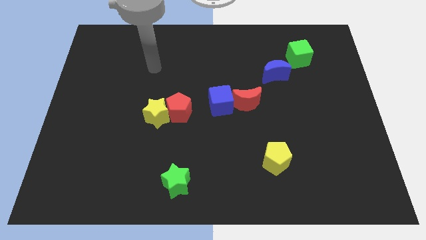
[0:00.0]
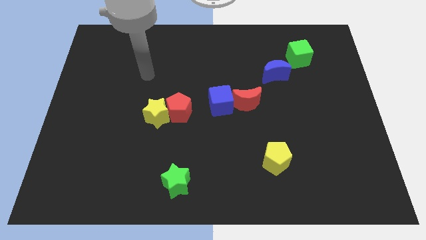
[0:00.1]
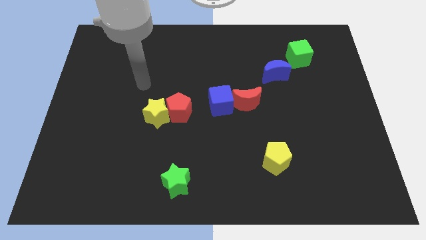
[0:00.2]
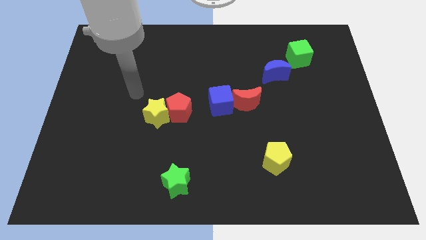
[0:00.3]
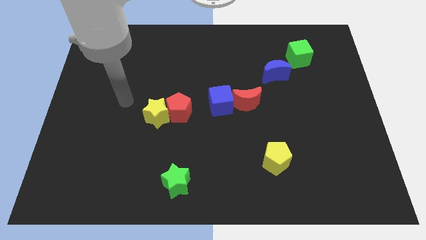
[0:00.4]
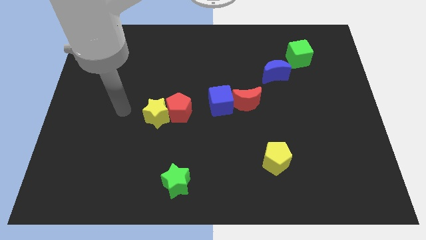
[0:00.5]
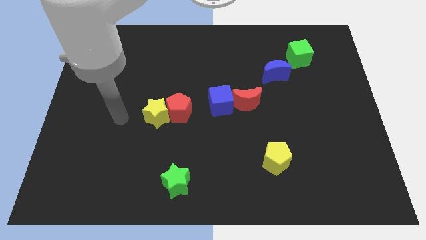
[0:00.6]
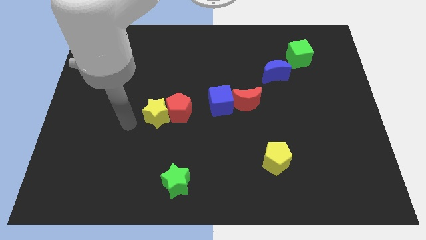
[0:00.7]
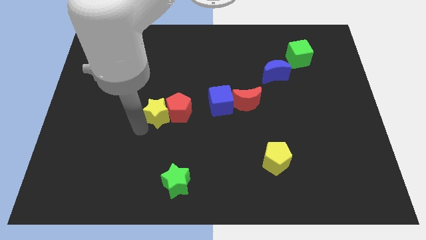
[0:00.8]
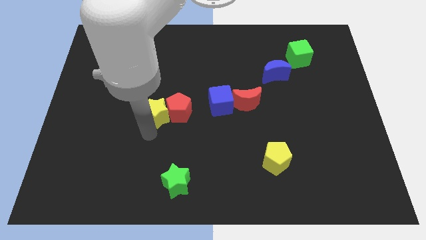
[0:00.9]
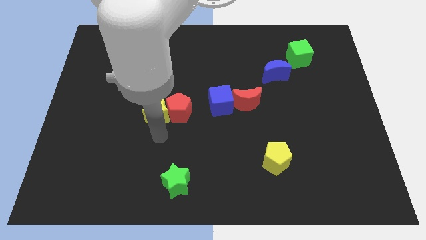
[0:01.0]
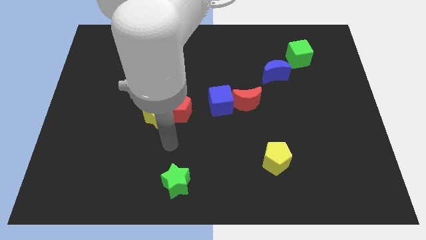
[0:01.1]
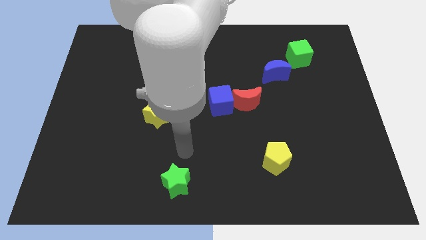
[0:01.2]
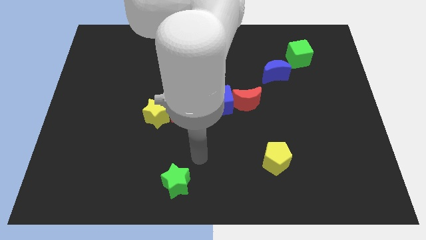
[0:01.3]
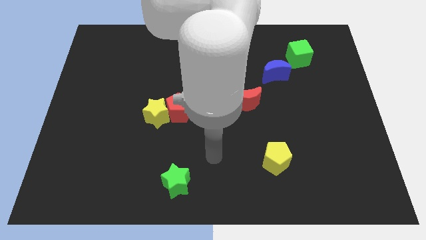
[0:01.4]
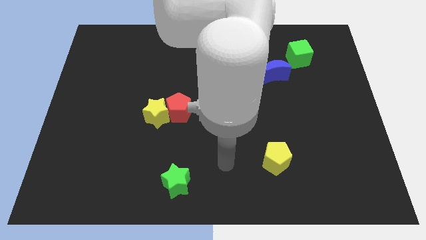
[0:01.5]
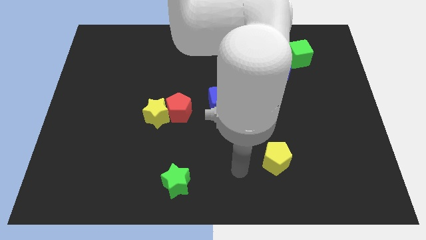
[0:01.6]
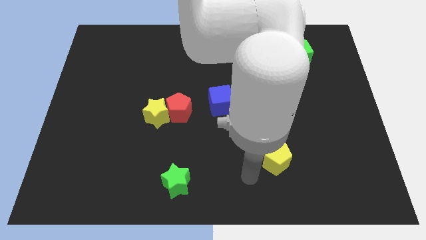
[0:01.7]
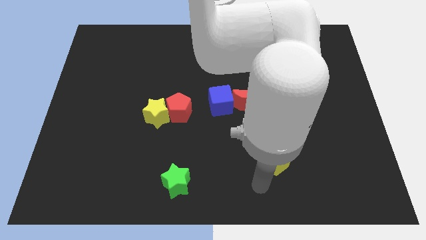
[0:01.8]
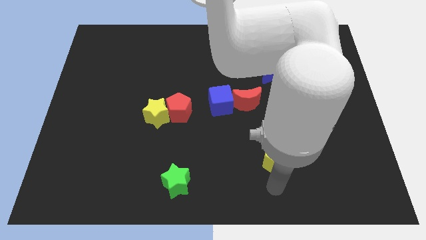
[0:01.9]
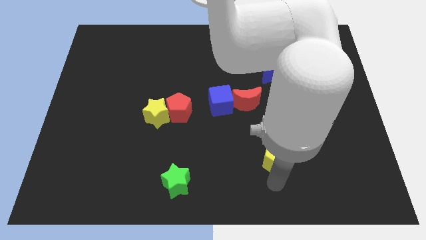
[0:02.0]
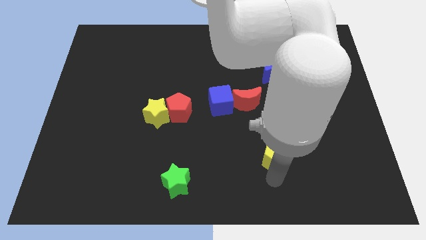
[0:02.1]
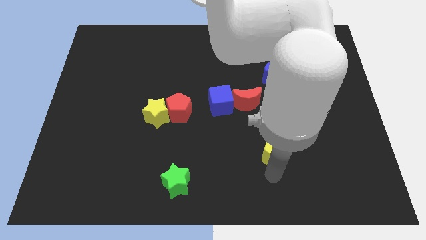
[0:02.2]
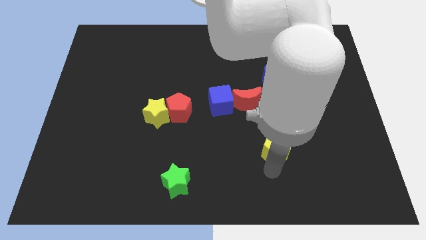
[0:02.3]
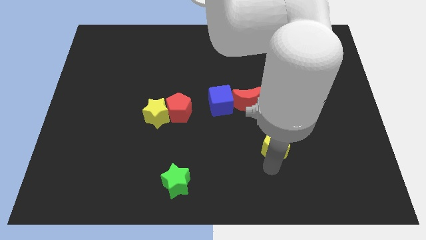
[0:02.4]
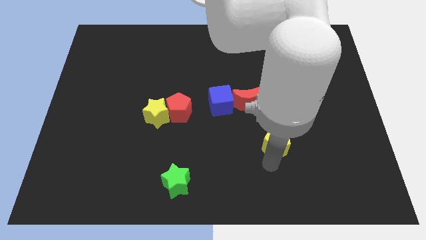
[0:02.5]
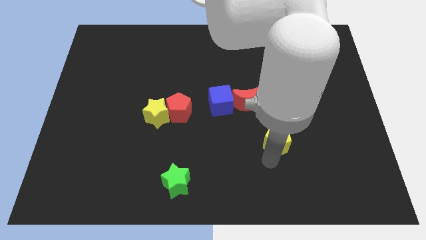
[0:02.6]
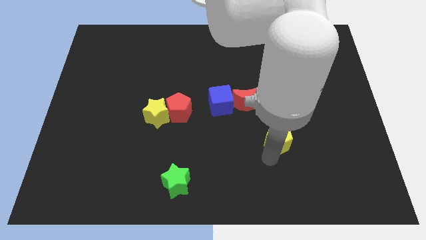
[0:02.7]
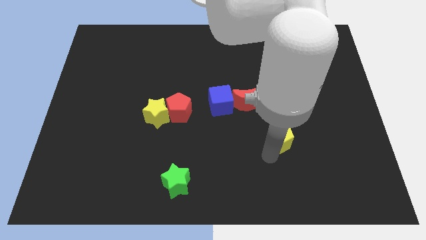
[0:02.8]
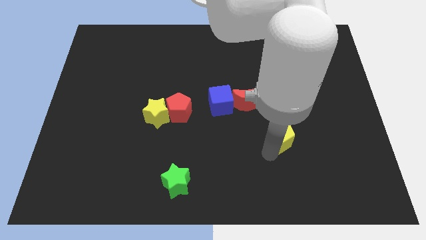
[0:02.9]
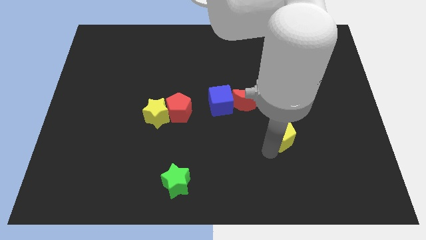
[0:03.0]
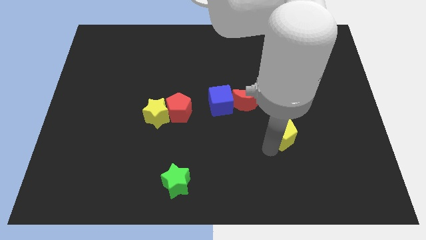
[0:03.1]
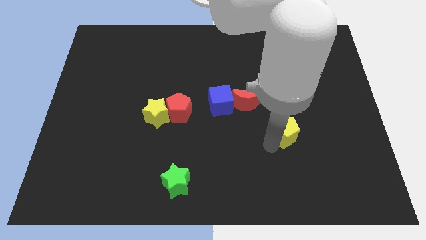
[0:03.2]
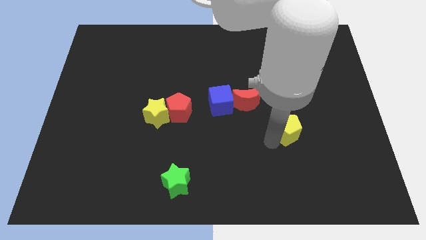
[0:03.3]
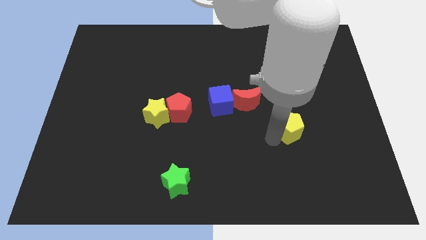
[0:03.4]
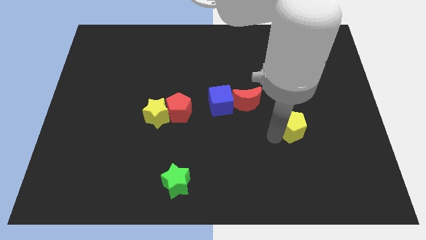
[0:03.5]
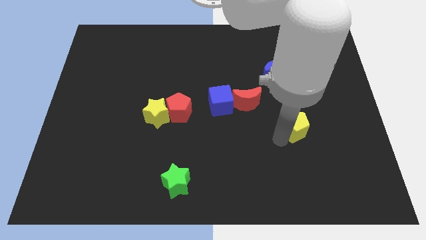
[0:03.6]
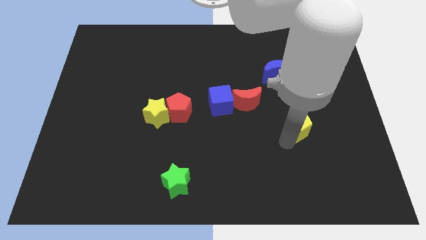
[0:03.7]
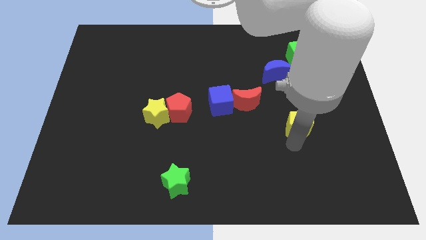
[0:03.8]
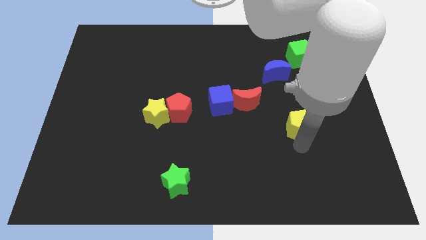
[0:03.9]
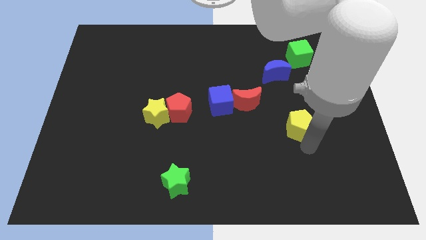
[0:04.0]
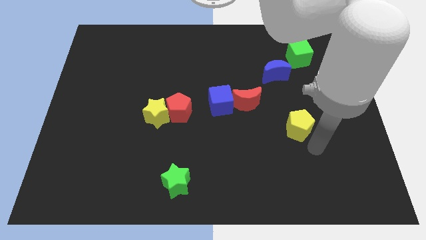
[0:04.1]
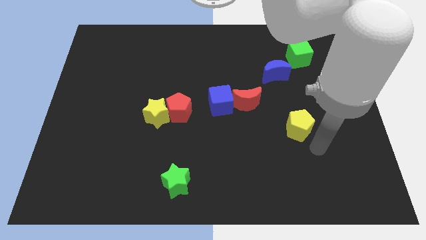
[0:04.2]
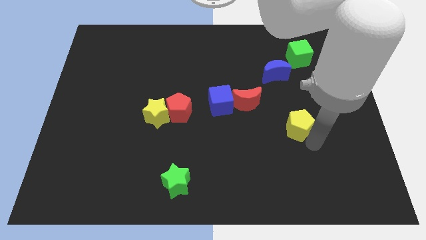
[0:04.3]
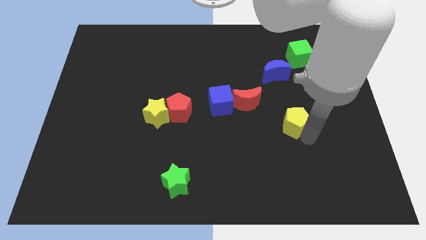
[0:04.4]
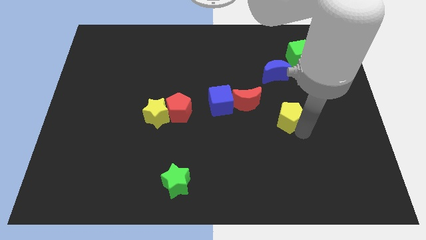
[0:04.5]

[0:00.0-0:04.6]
slide the yellow pentagon below the blue moon

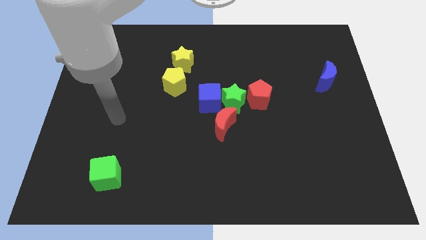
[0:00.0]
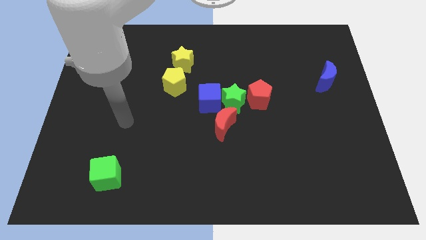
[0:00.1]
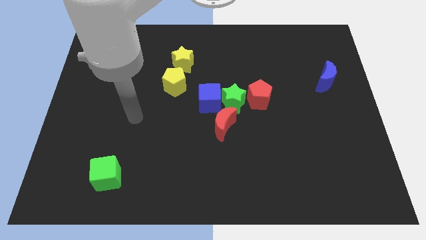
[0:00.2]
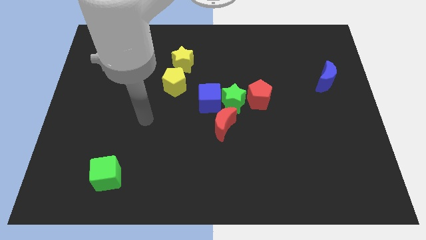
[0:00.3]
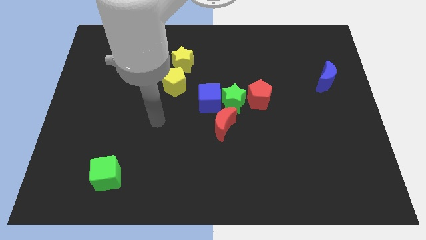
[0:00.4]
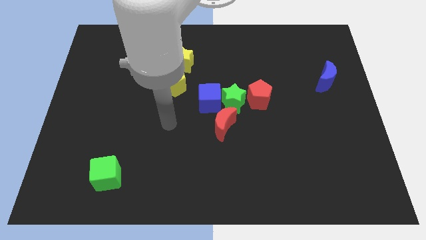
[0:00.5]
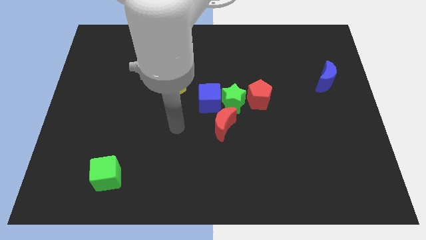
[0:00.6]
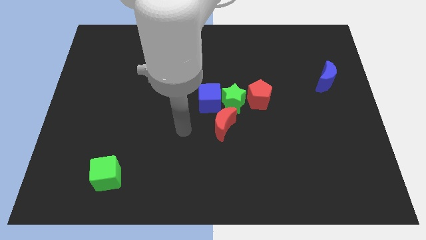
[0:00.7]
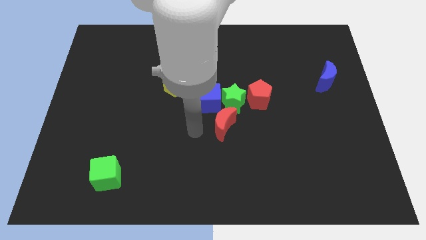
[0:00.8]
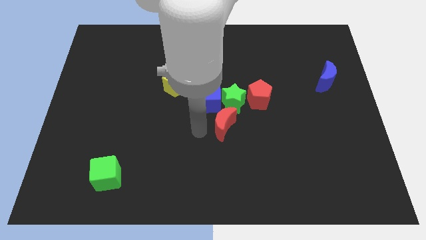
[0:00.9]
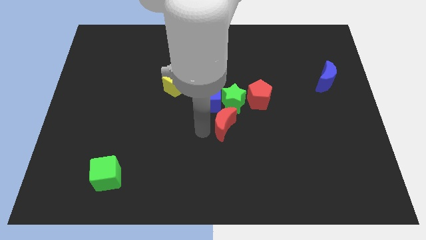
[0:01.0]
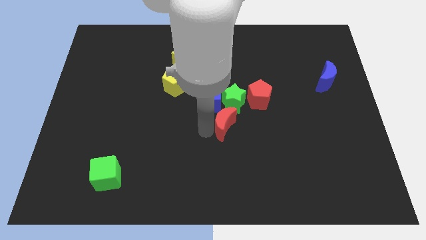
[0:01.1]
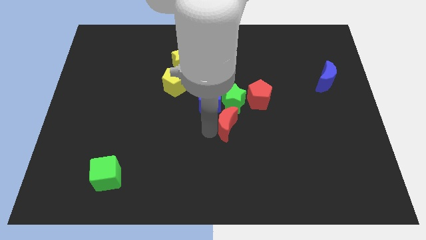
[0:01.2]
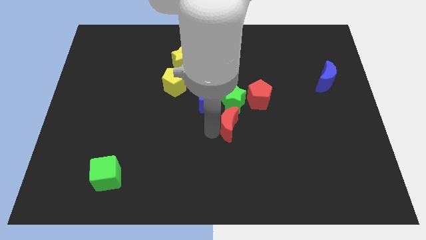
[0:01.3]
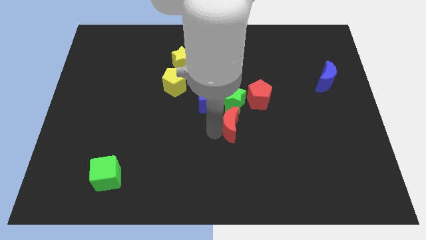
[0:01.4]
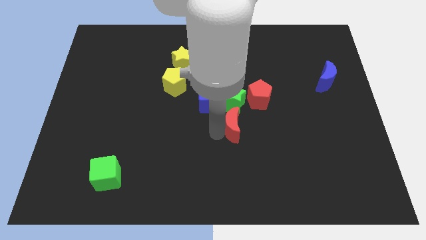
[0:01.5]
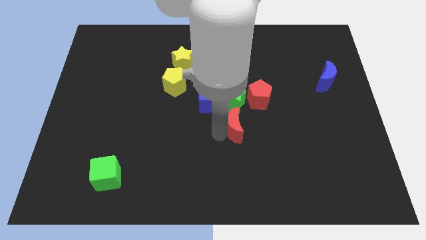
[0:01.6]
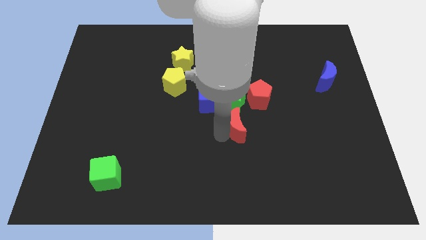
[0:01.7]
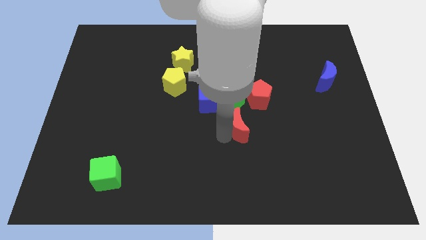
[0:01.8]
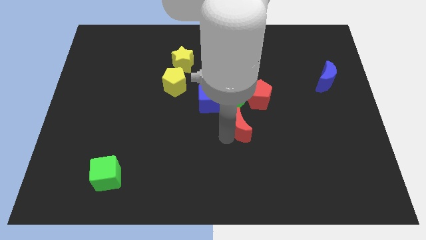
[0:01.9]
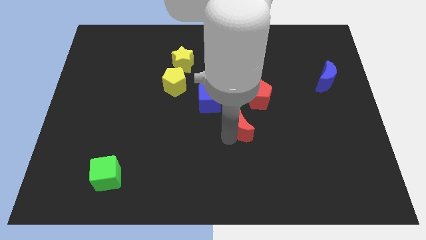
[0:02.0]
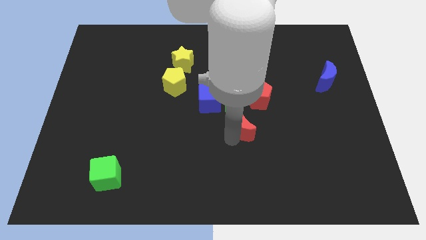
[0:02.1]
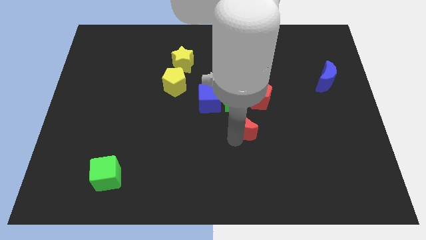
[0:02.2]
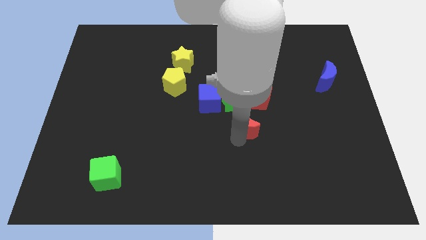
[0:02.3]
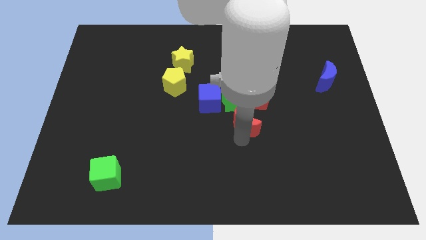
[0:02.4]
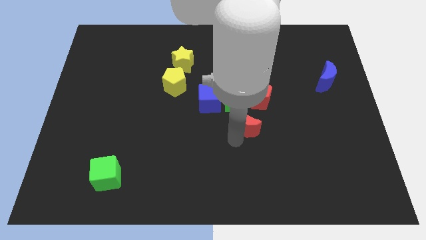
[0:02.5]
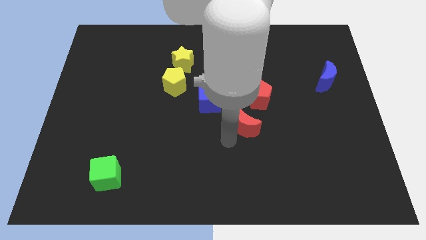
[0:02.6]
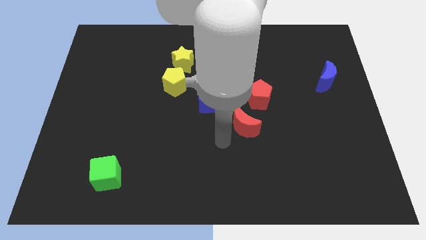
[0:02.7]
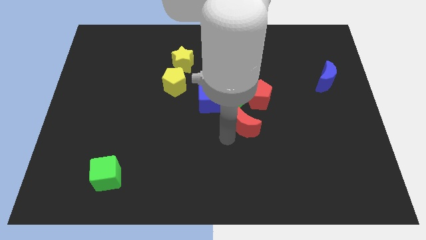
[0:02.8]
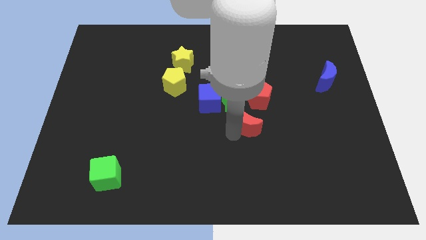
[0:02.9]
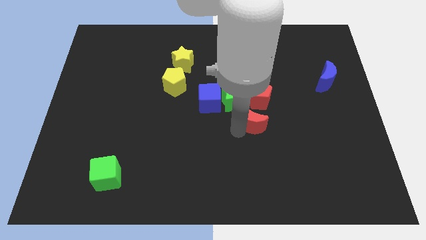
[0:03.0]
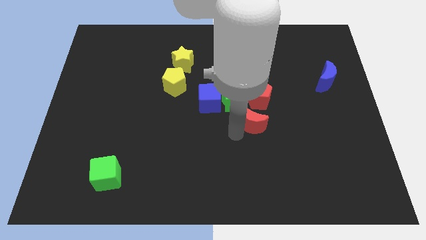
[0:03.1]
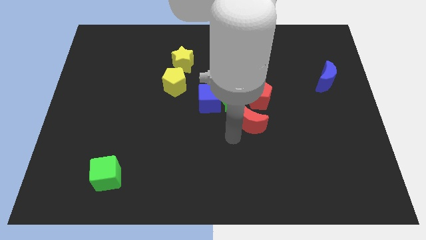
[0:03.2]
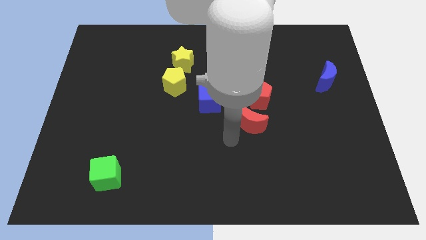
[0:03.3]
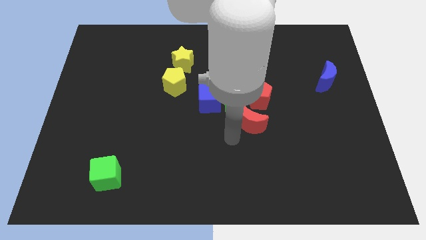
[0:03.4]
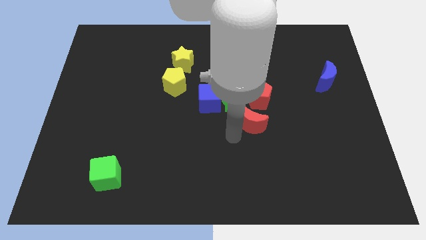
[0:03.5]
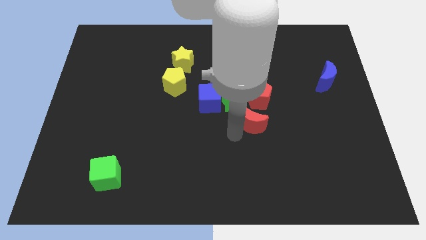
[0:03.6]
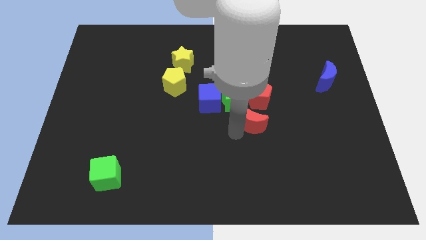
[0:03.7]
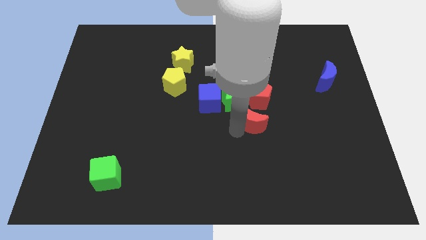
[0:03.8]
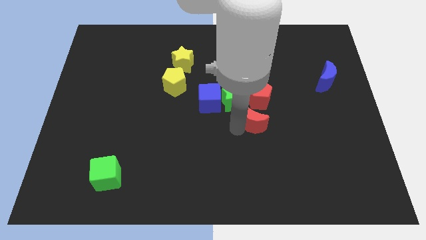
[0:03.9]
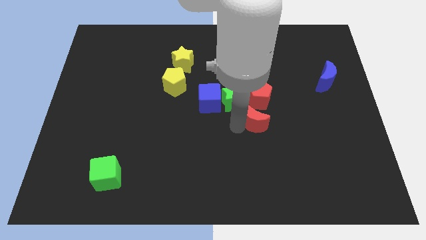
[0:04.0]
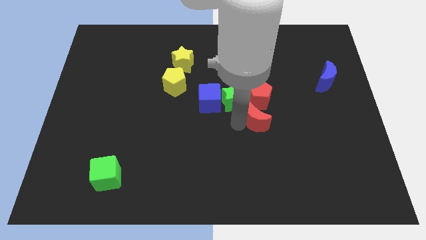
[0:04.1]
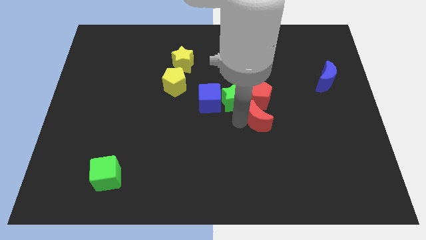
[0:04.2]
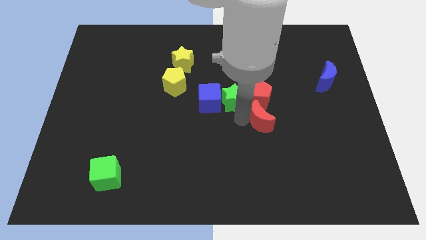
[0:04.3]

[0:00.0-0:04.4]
push the red moon diagonally down and to the right of the red pentagon
